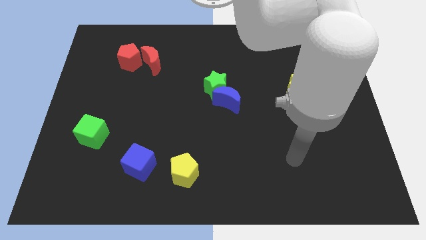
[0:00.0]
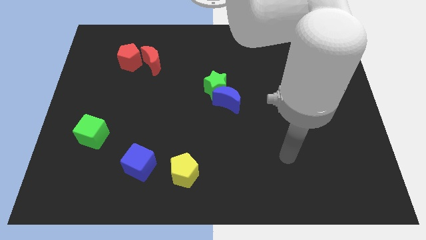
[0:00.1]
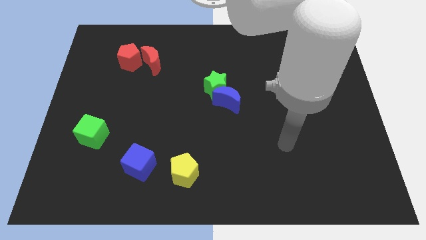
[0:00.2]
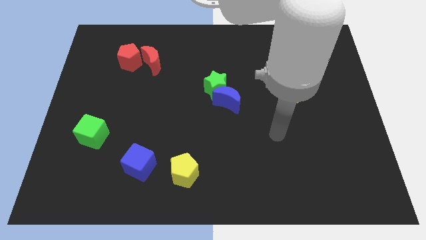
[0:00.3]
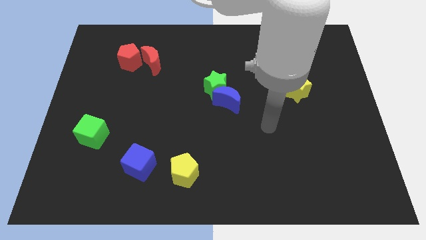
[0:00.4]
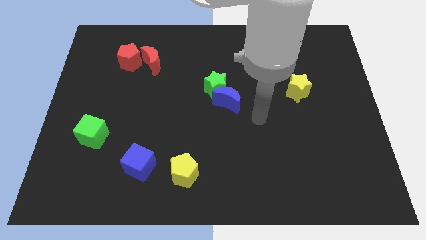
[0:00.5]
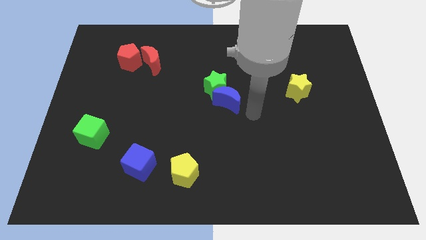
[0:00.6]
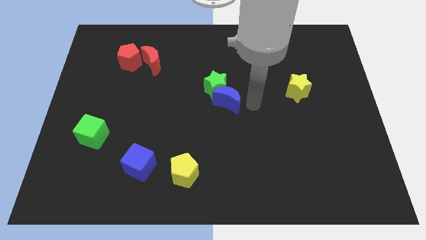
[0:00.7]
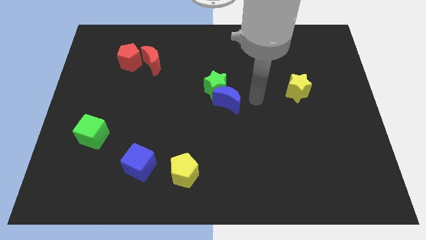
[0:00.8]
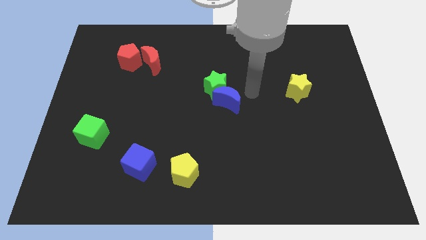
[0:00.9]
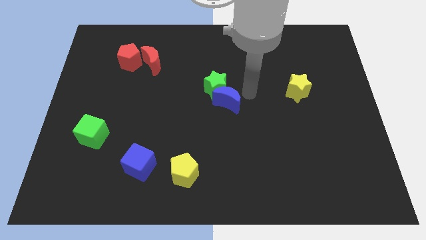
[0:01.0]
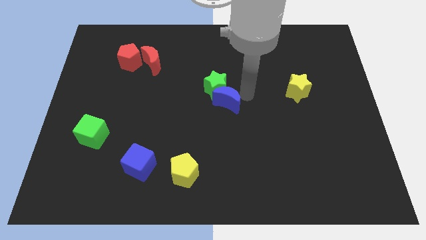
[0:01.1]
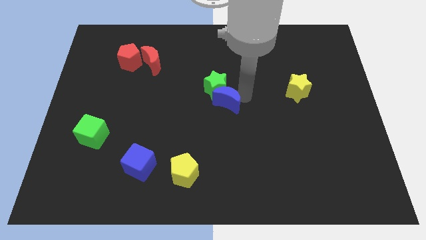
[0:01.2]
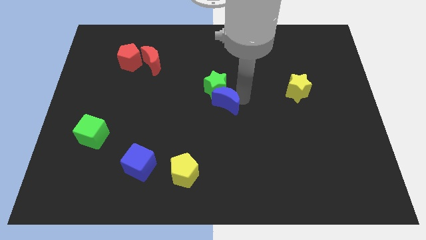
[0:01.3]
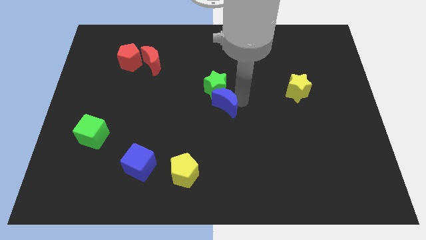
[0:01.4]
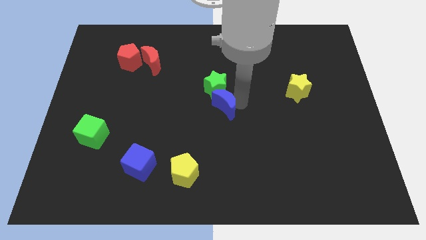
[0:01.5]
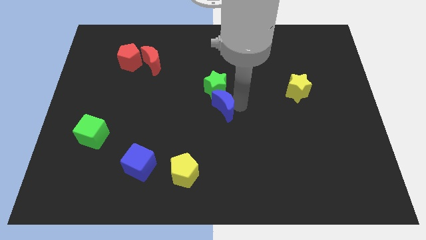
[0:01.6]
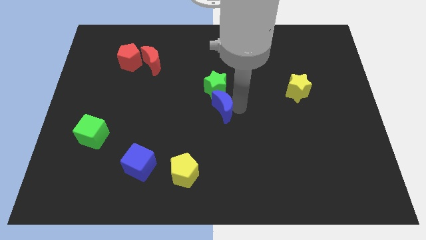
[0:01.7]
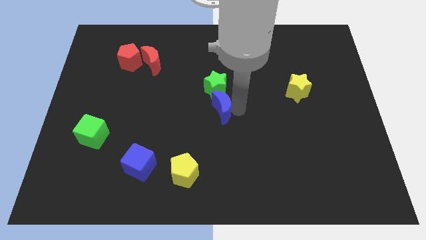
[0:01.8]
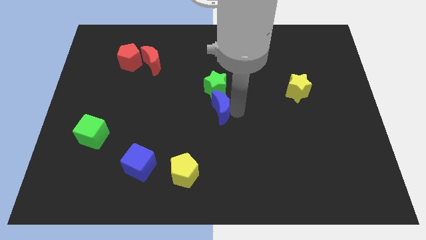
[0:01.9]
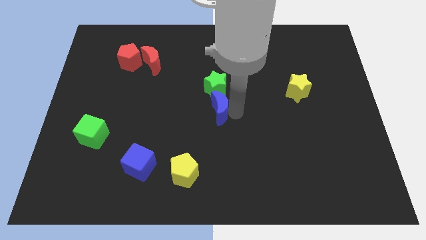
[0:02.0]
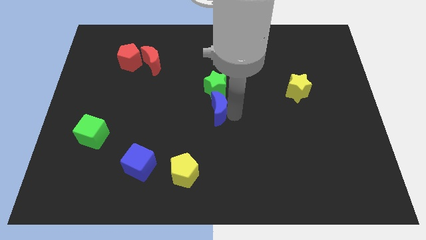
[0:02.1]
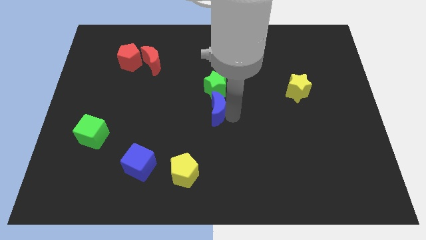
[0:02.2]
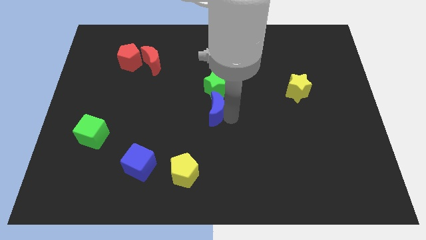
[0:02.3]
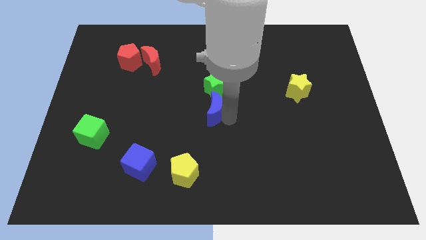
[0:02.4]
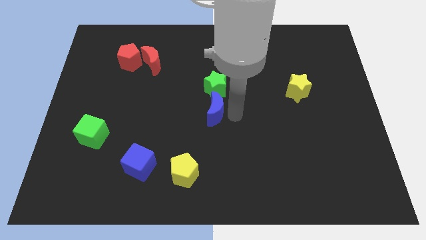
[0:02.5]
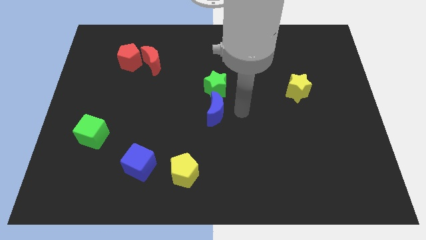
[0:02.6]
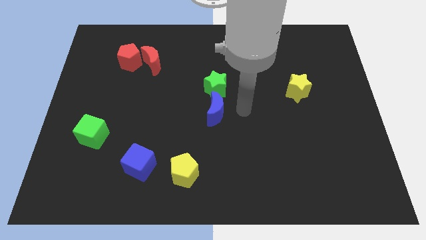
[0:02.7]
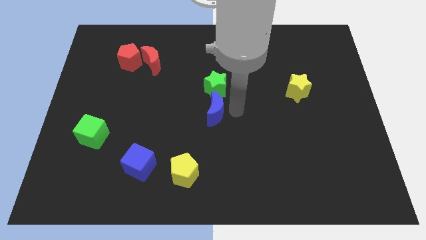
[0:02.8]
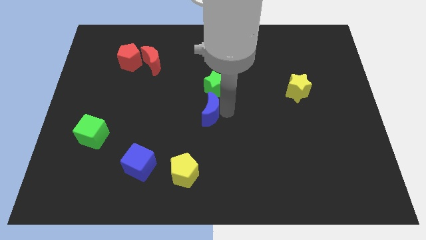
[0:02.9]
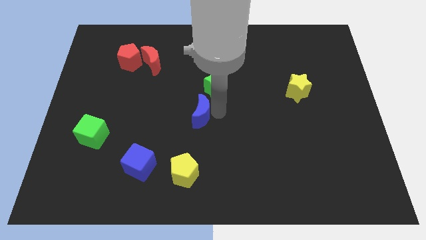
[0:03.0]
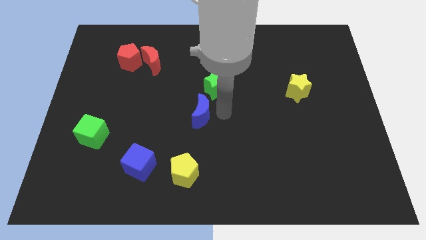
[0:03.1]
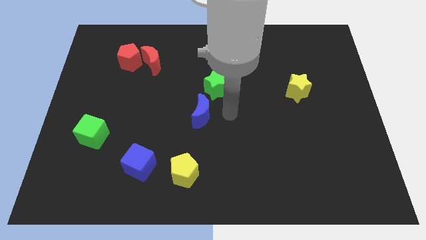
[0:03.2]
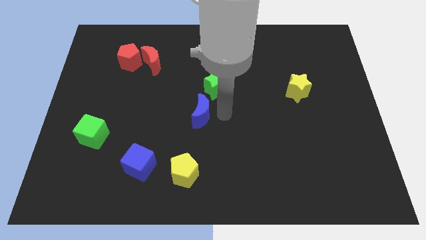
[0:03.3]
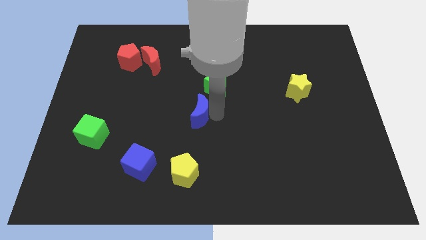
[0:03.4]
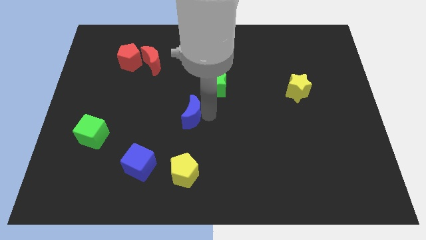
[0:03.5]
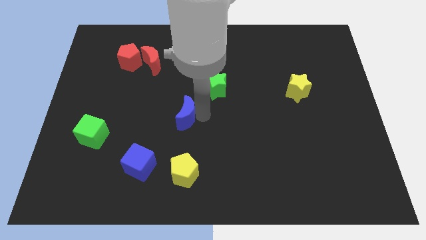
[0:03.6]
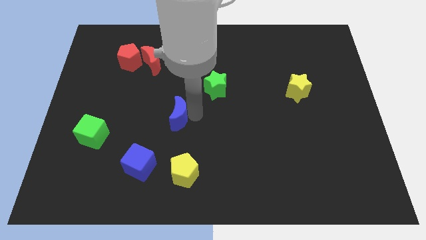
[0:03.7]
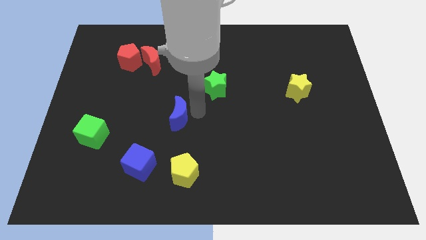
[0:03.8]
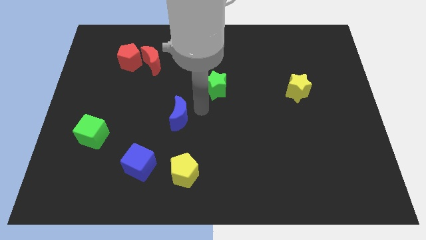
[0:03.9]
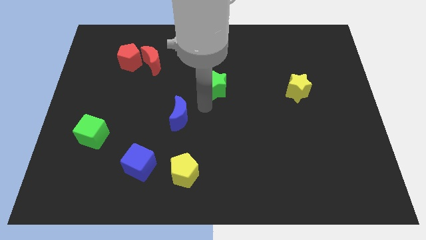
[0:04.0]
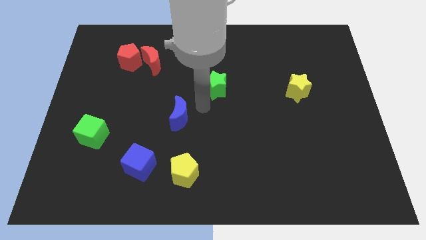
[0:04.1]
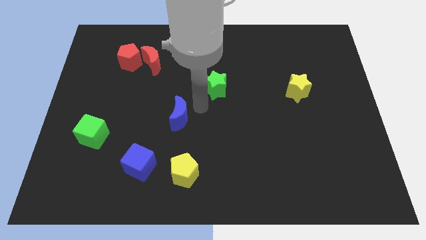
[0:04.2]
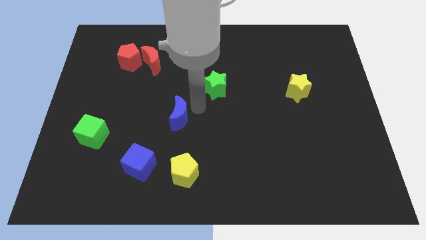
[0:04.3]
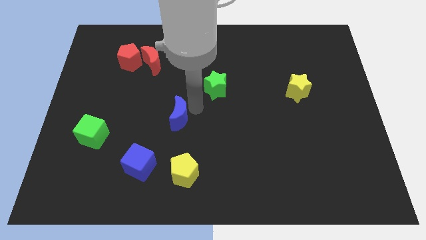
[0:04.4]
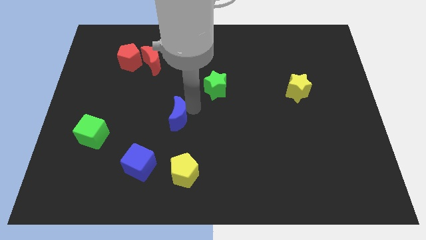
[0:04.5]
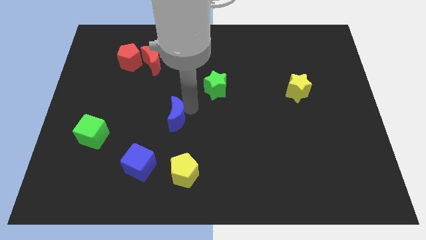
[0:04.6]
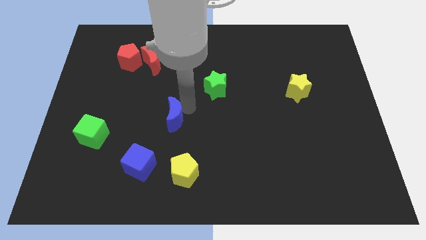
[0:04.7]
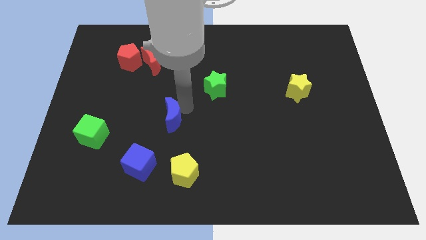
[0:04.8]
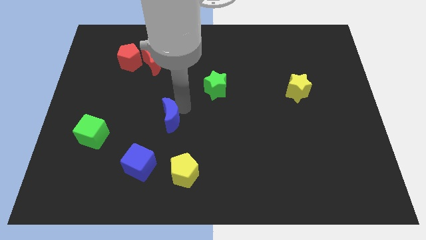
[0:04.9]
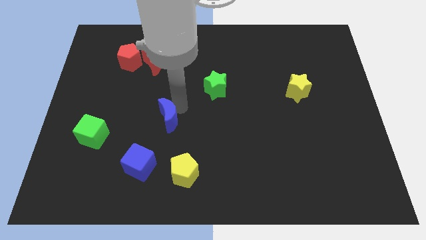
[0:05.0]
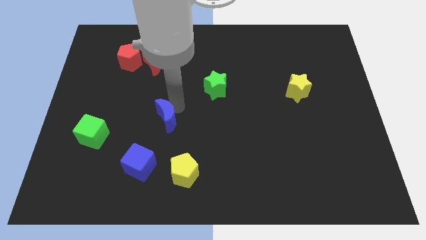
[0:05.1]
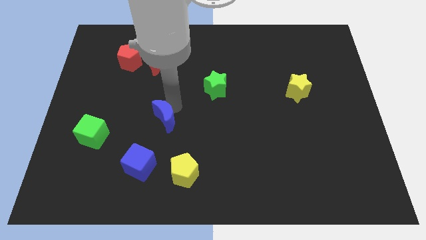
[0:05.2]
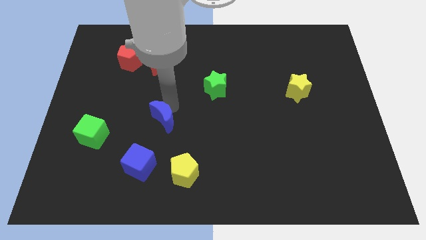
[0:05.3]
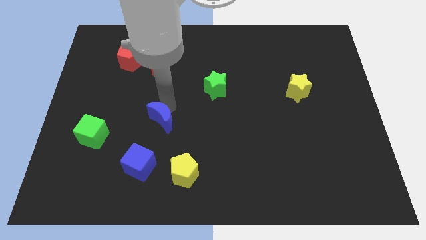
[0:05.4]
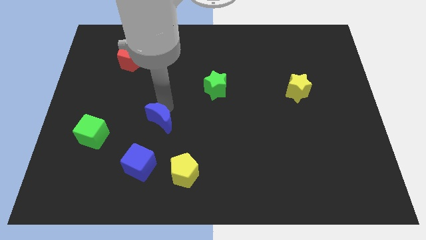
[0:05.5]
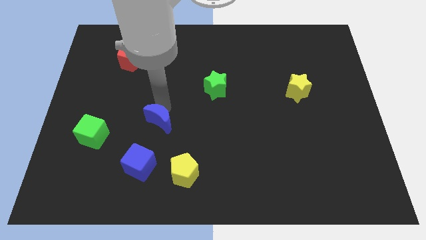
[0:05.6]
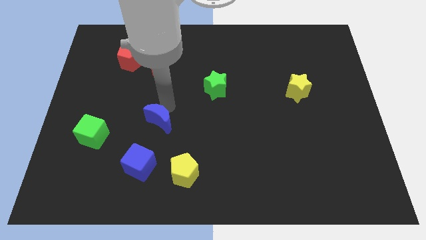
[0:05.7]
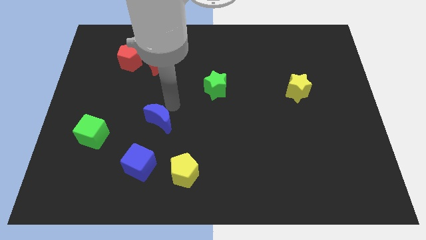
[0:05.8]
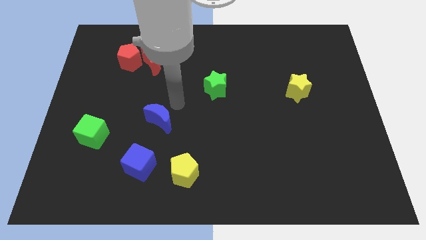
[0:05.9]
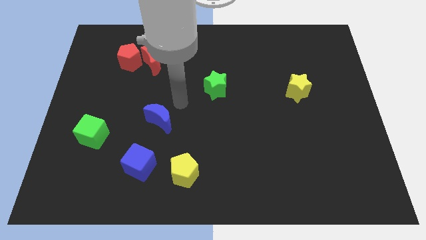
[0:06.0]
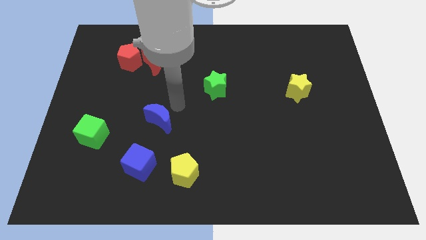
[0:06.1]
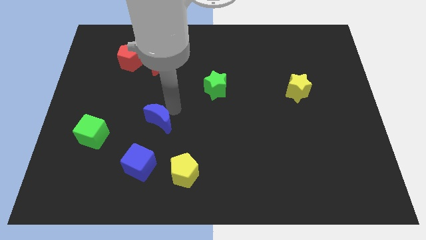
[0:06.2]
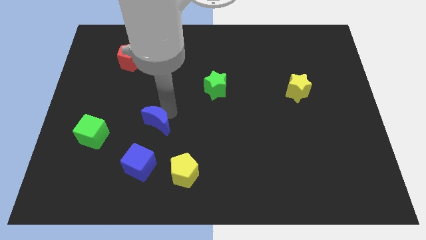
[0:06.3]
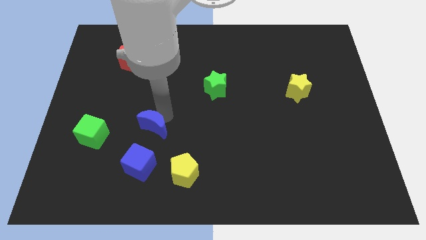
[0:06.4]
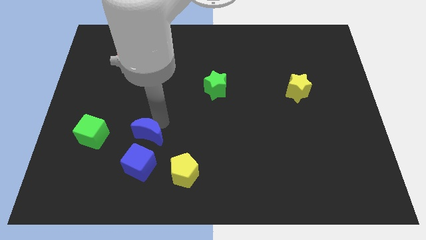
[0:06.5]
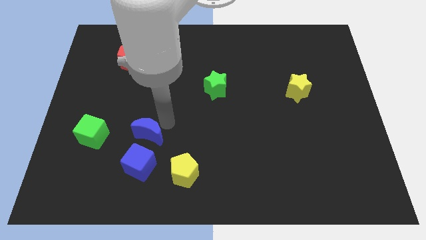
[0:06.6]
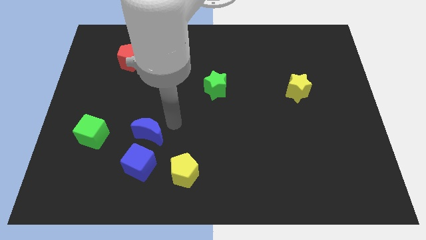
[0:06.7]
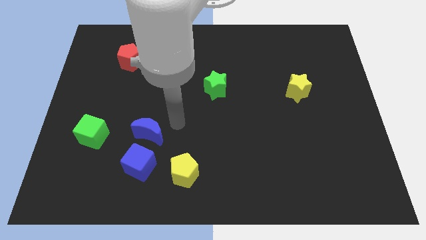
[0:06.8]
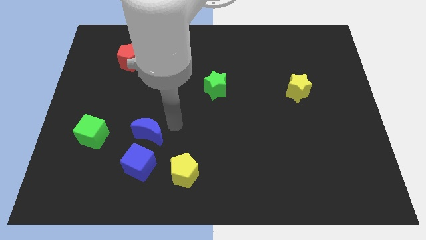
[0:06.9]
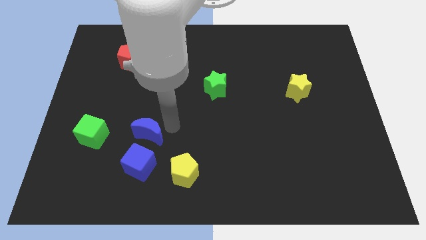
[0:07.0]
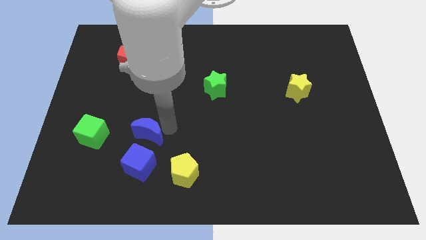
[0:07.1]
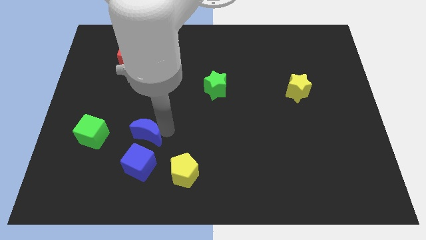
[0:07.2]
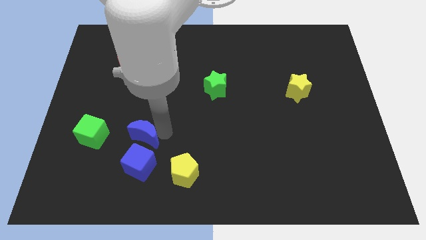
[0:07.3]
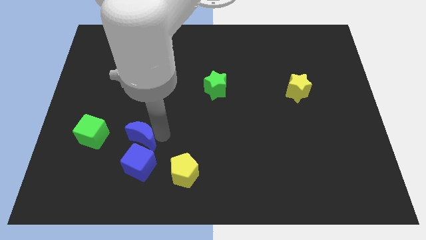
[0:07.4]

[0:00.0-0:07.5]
move the blue moon diagonally up and to the left of the blue cube
